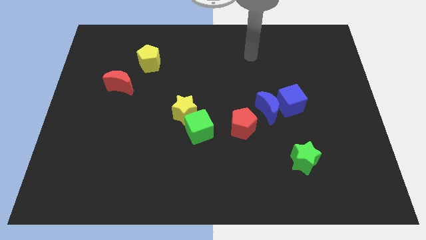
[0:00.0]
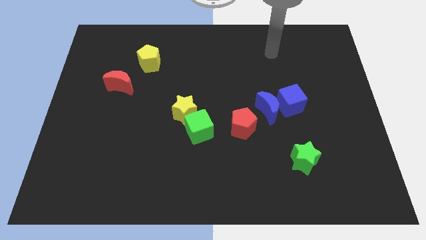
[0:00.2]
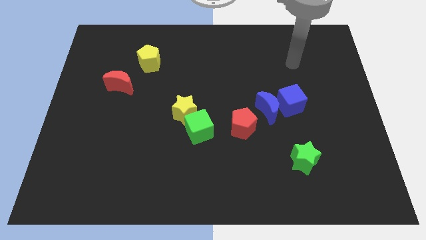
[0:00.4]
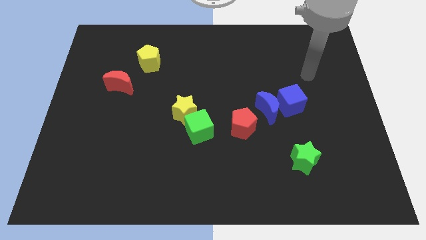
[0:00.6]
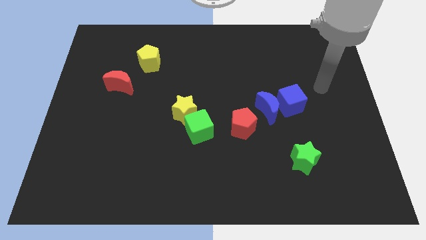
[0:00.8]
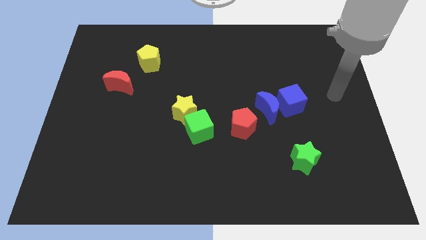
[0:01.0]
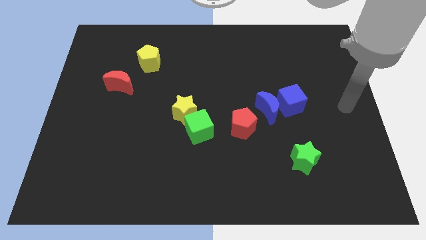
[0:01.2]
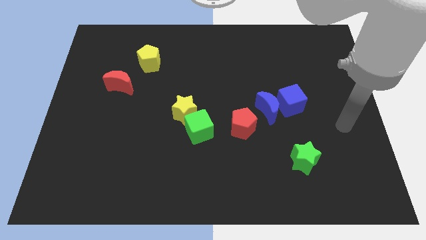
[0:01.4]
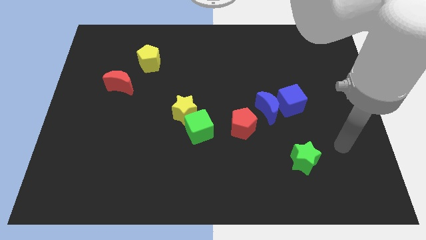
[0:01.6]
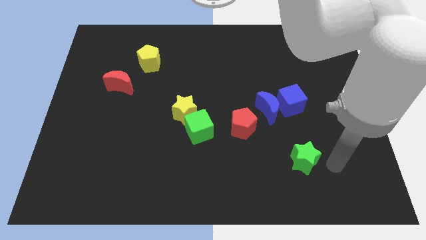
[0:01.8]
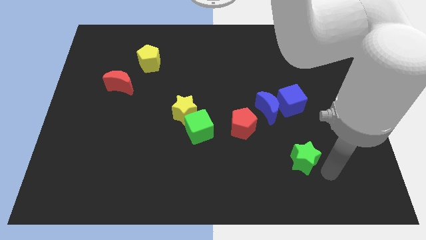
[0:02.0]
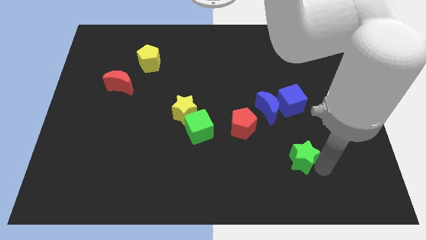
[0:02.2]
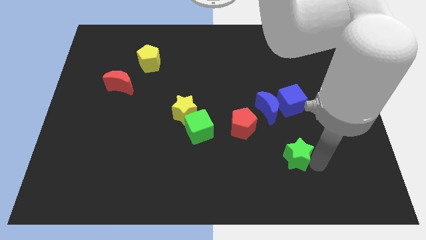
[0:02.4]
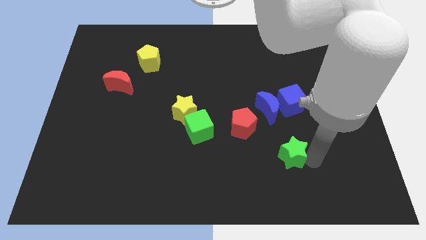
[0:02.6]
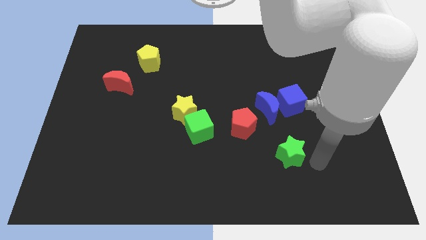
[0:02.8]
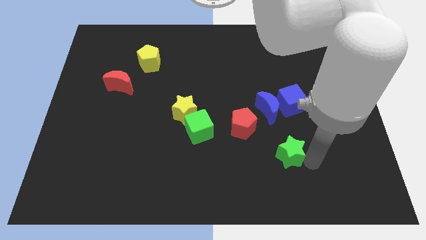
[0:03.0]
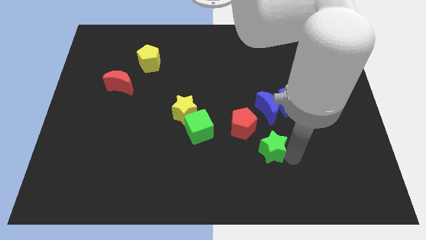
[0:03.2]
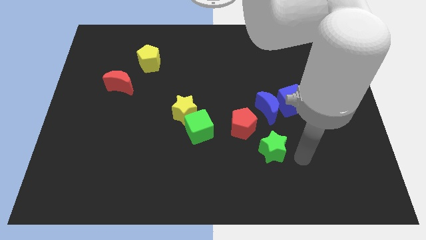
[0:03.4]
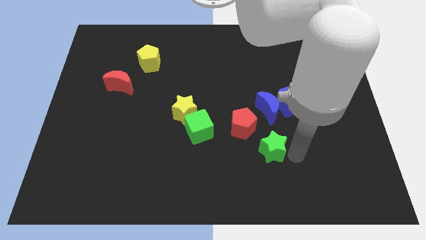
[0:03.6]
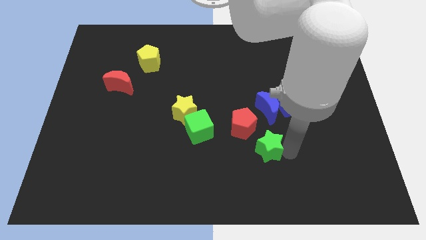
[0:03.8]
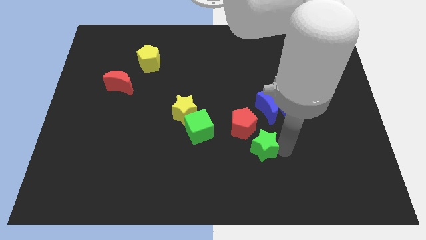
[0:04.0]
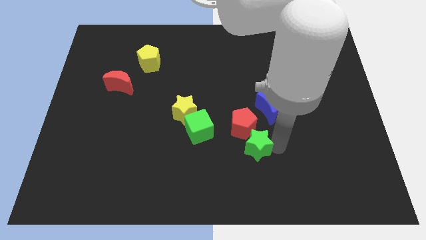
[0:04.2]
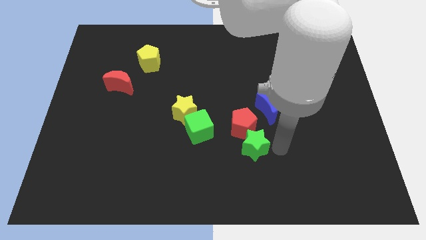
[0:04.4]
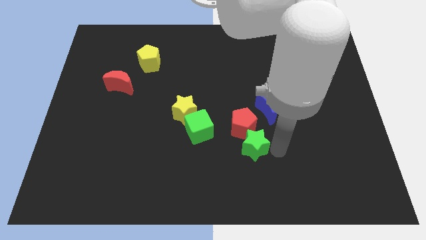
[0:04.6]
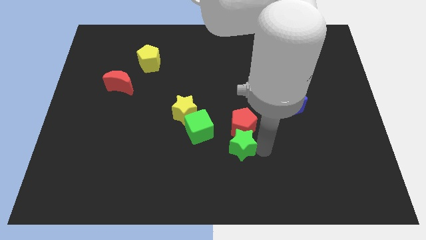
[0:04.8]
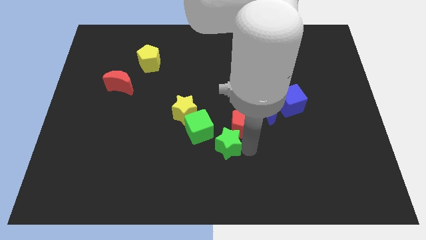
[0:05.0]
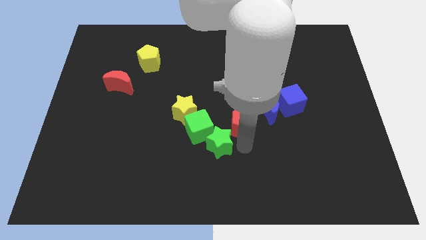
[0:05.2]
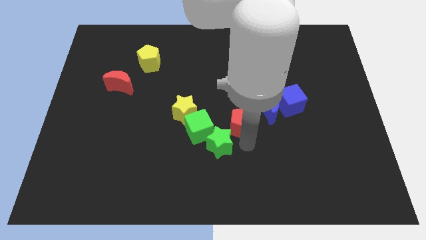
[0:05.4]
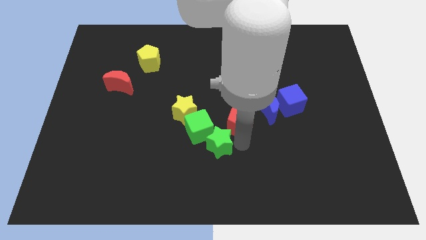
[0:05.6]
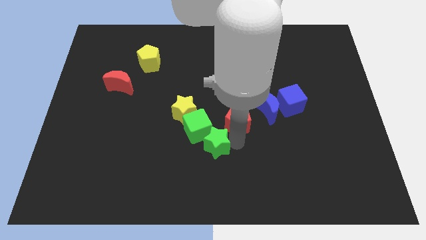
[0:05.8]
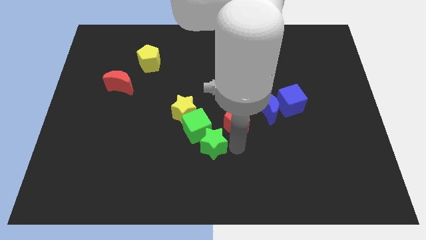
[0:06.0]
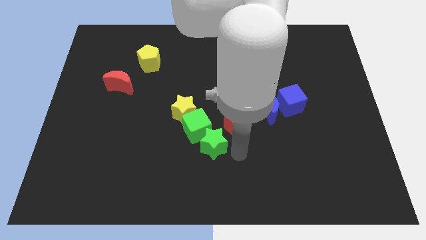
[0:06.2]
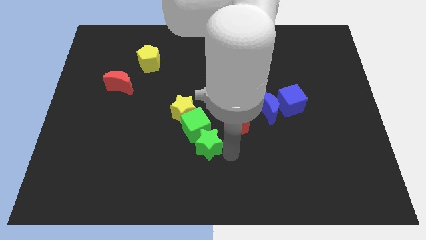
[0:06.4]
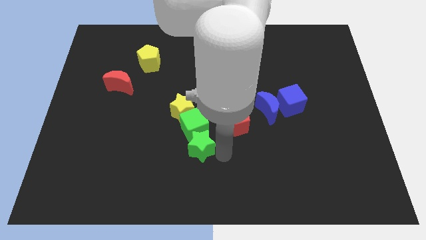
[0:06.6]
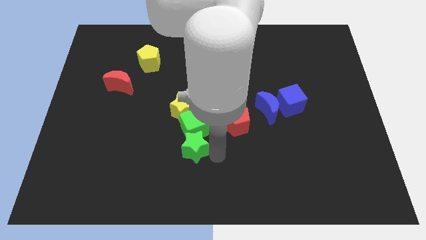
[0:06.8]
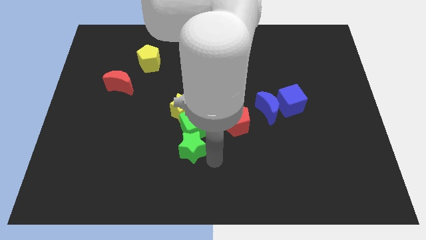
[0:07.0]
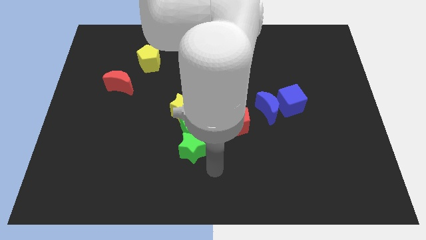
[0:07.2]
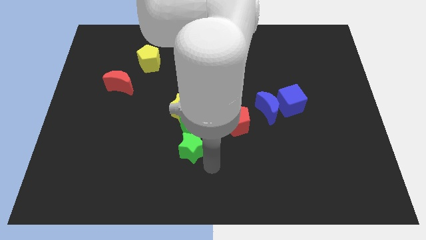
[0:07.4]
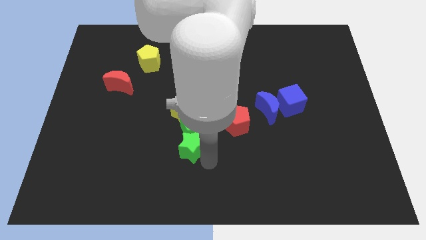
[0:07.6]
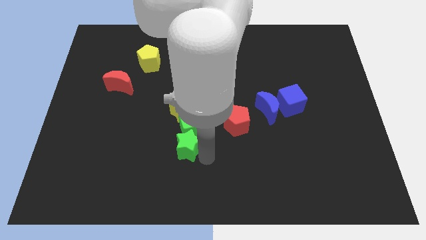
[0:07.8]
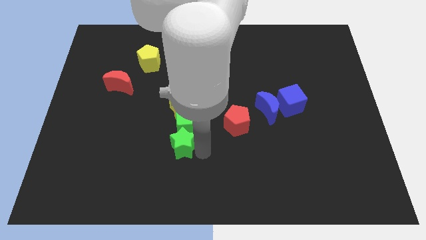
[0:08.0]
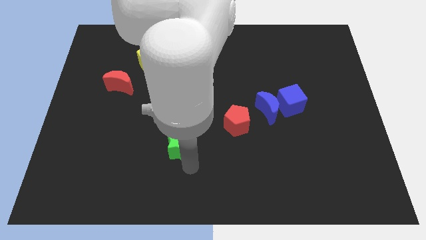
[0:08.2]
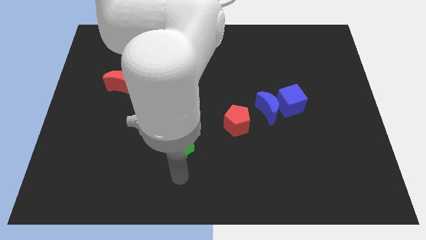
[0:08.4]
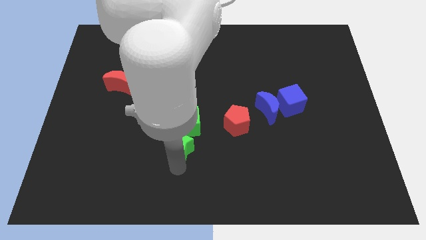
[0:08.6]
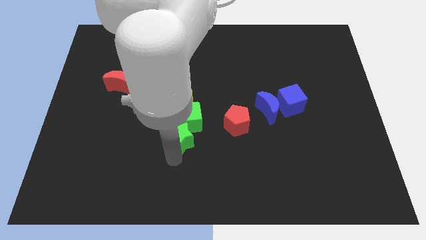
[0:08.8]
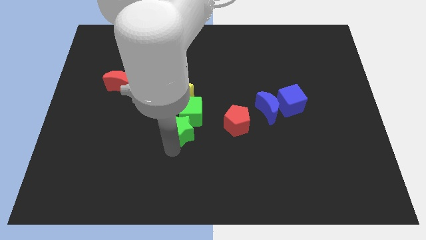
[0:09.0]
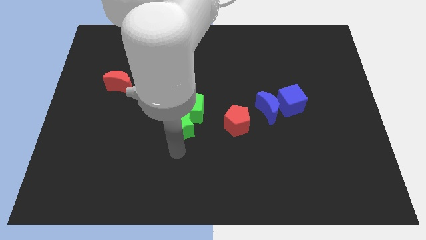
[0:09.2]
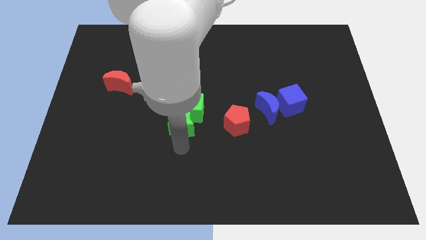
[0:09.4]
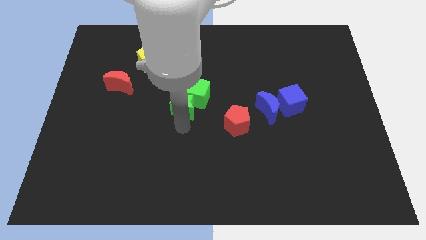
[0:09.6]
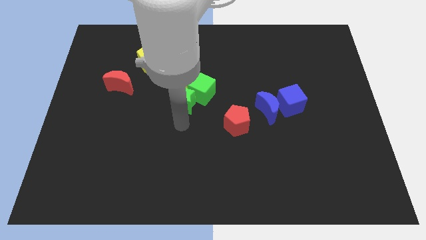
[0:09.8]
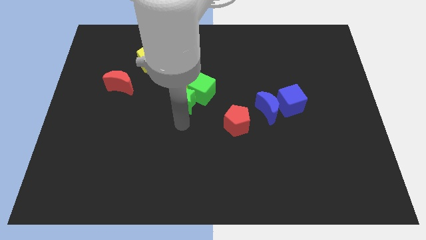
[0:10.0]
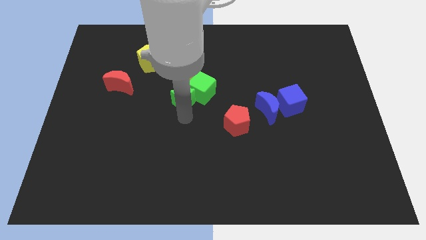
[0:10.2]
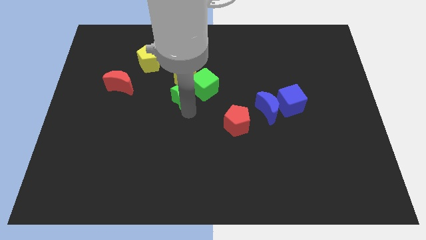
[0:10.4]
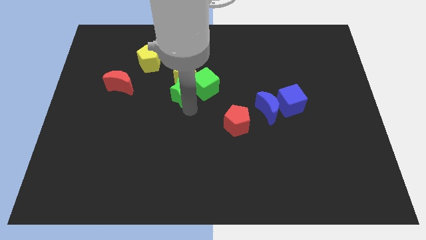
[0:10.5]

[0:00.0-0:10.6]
push the green star to the yellow star

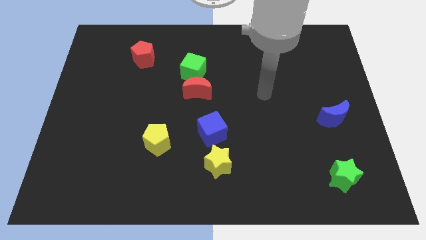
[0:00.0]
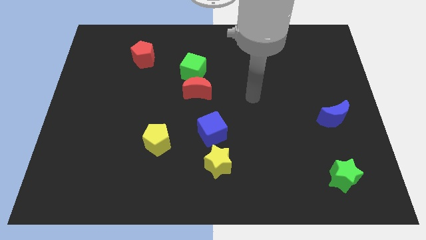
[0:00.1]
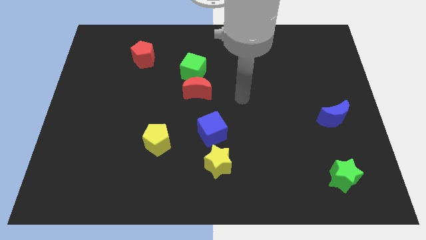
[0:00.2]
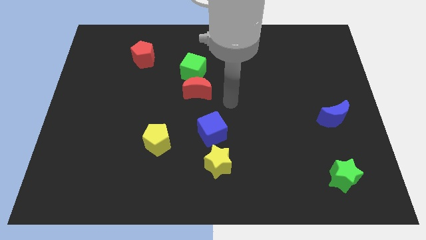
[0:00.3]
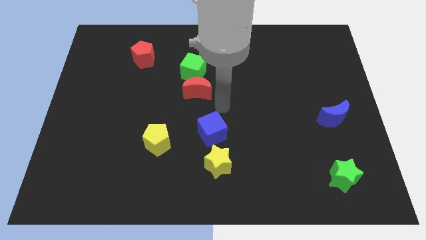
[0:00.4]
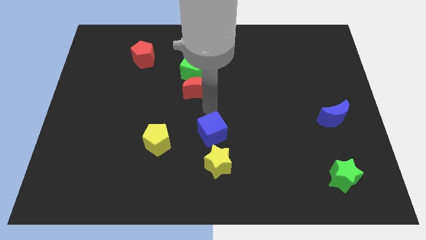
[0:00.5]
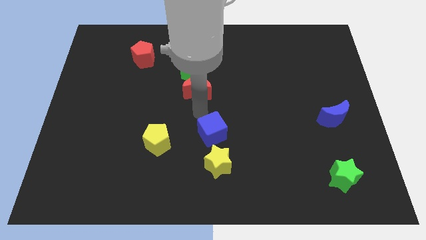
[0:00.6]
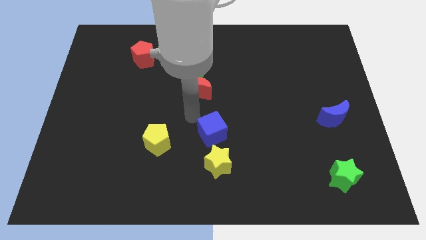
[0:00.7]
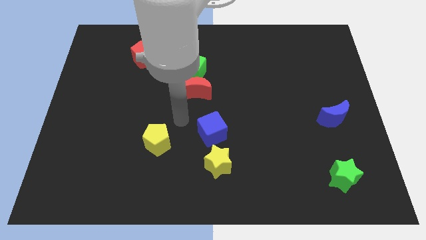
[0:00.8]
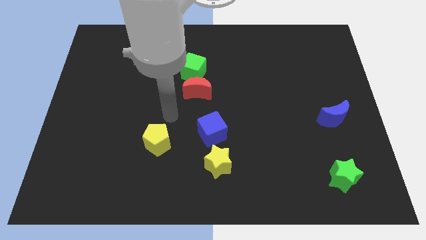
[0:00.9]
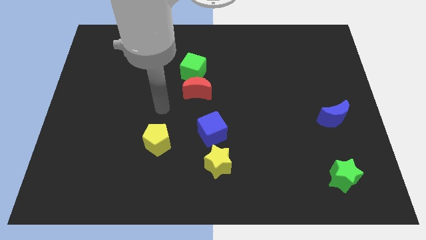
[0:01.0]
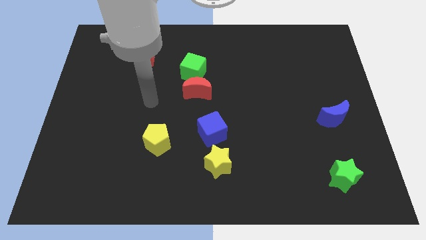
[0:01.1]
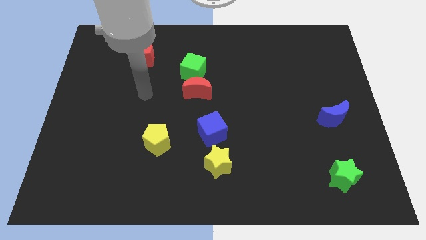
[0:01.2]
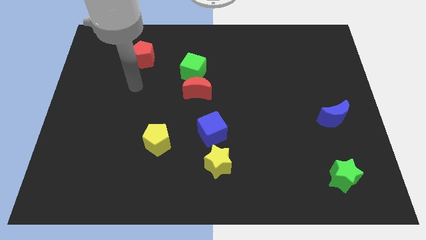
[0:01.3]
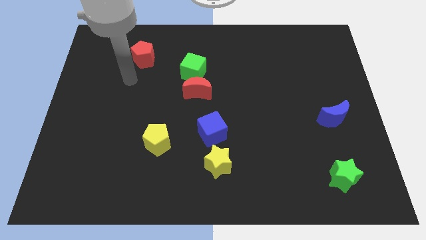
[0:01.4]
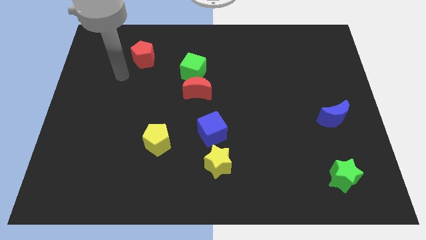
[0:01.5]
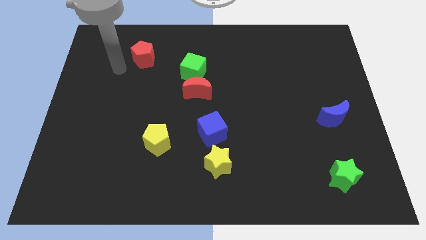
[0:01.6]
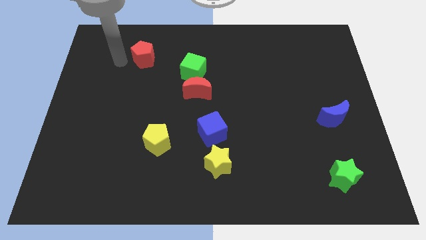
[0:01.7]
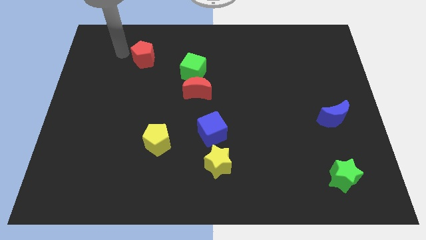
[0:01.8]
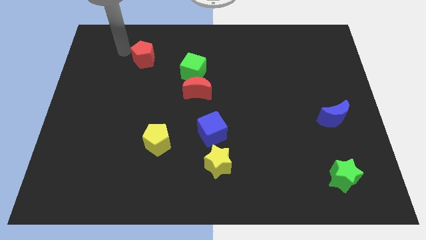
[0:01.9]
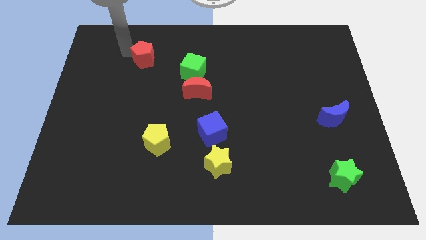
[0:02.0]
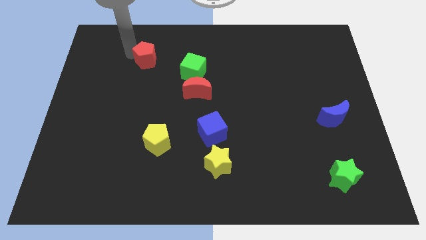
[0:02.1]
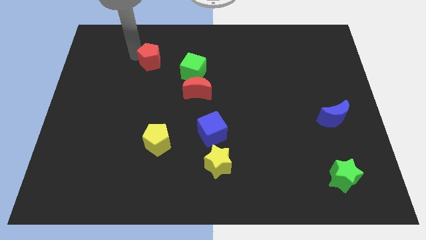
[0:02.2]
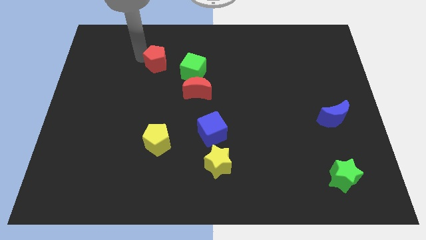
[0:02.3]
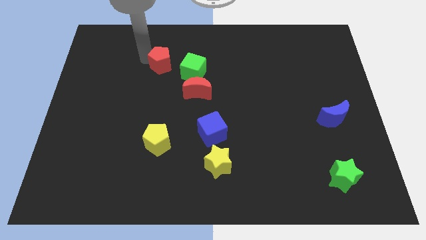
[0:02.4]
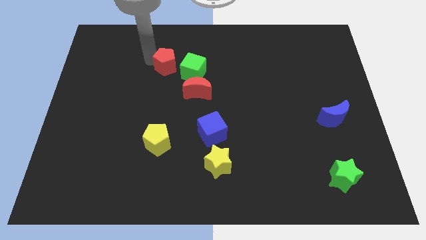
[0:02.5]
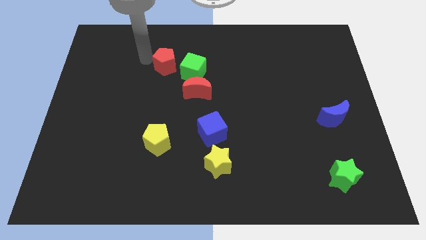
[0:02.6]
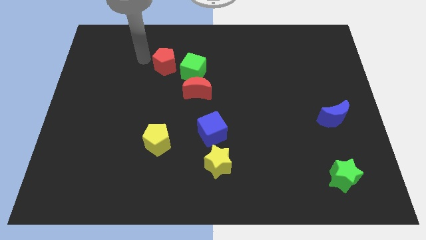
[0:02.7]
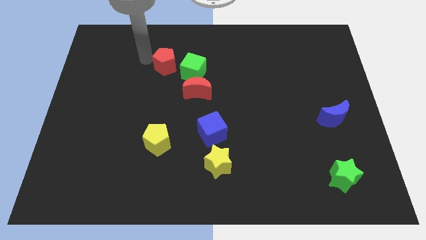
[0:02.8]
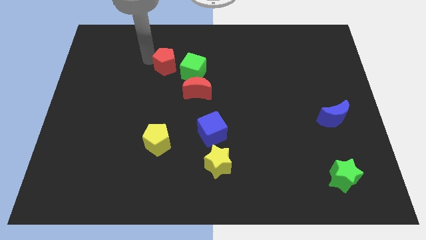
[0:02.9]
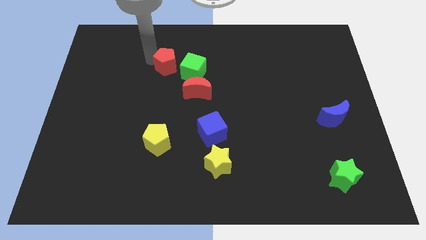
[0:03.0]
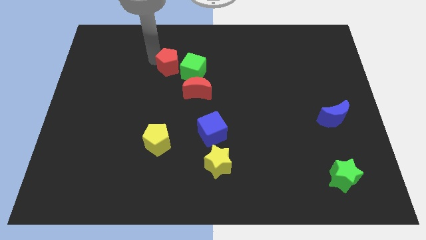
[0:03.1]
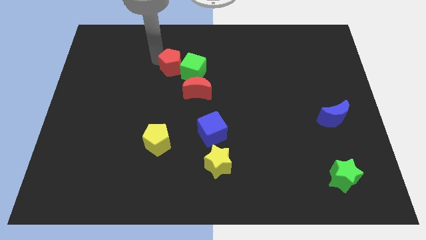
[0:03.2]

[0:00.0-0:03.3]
push the red pentagon close to the green cube
